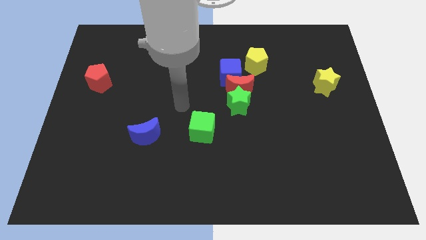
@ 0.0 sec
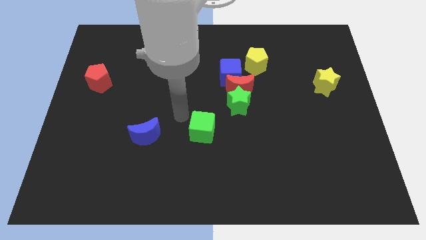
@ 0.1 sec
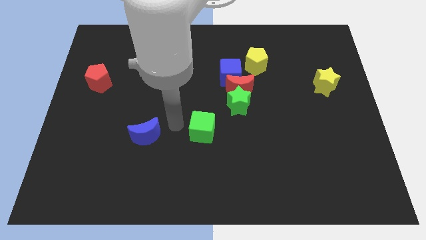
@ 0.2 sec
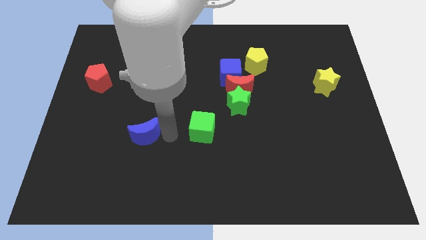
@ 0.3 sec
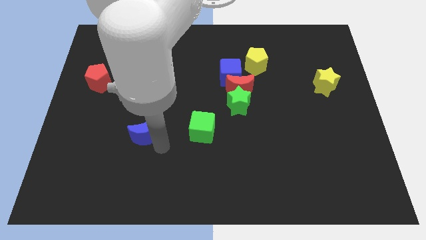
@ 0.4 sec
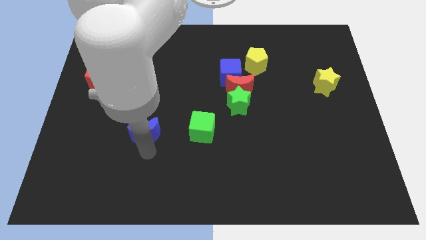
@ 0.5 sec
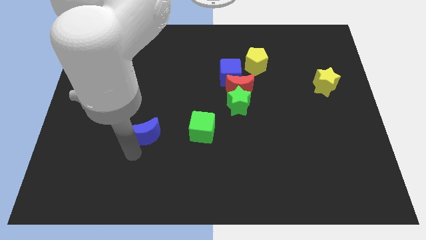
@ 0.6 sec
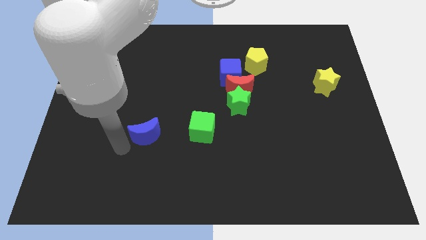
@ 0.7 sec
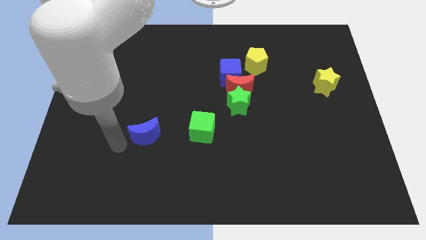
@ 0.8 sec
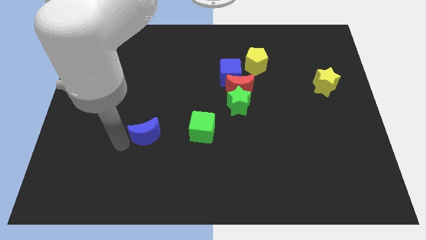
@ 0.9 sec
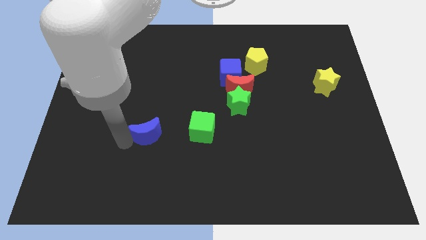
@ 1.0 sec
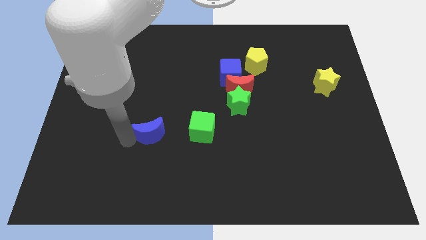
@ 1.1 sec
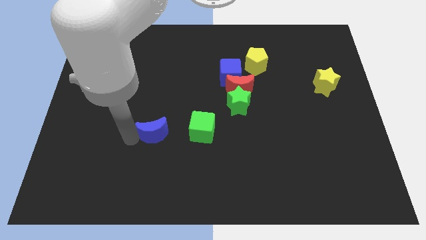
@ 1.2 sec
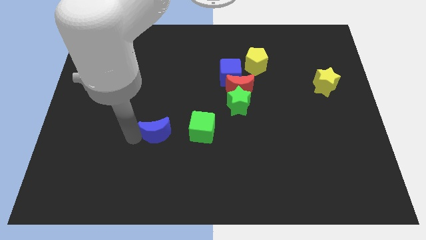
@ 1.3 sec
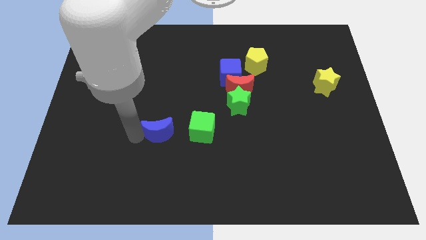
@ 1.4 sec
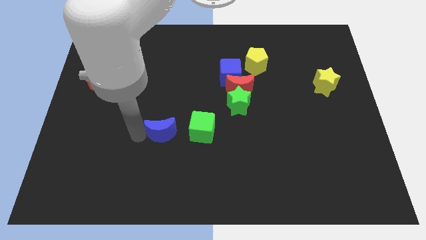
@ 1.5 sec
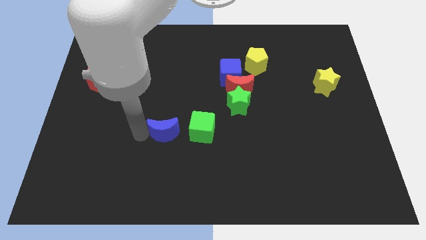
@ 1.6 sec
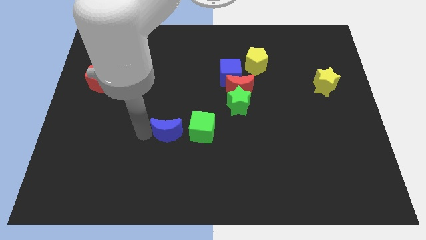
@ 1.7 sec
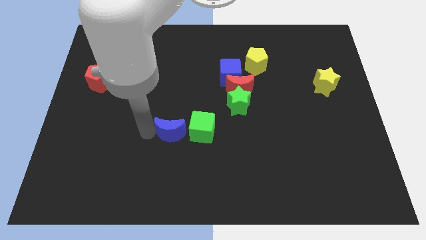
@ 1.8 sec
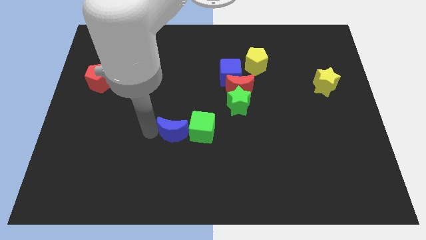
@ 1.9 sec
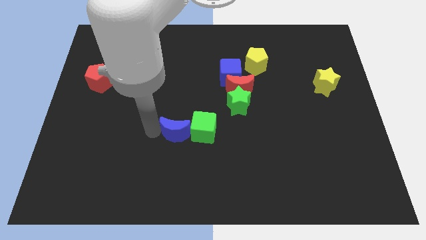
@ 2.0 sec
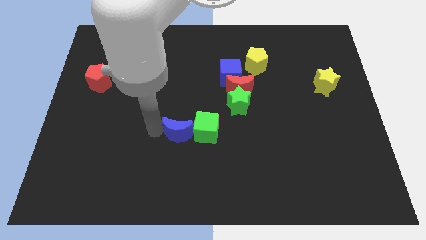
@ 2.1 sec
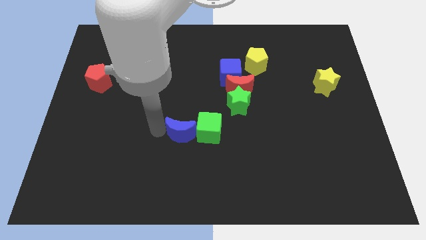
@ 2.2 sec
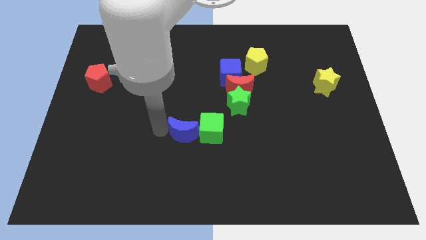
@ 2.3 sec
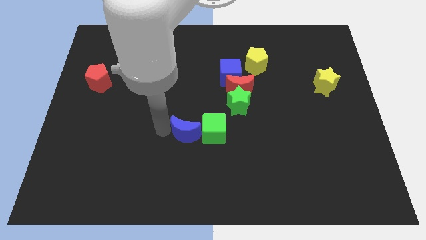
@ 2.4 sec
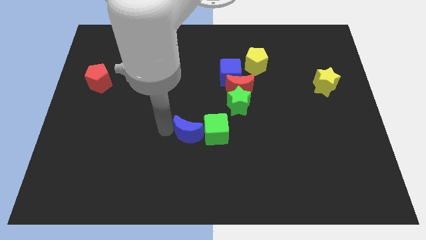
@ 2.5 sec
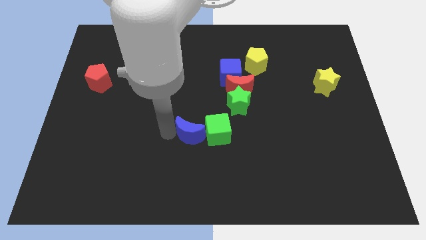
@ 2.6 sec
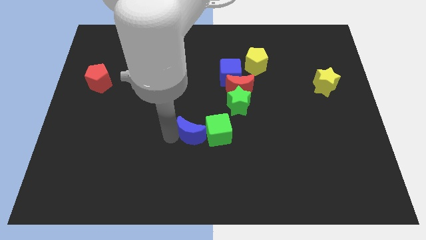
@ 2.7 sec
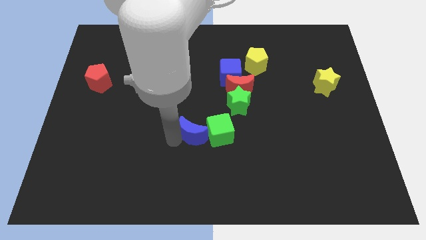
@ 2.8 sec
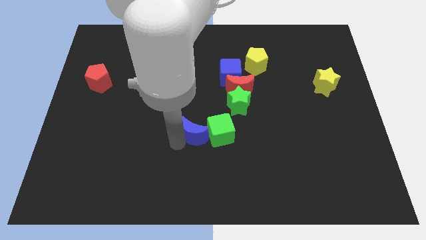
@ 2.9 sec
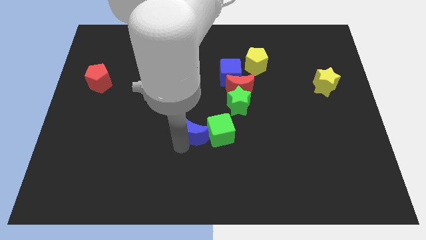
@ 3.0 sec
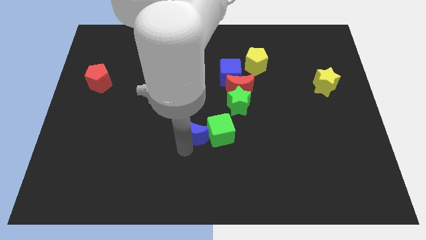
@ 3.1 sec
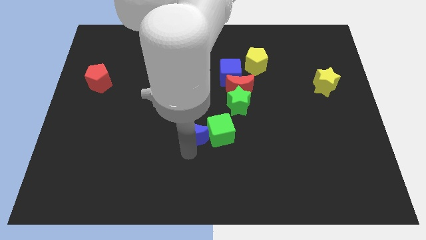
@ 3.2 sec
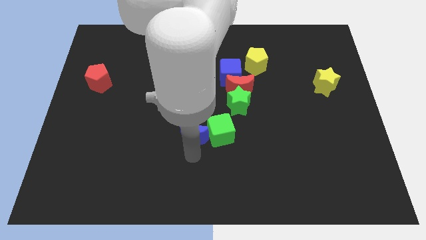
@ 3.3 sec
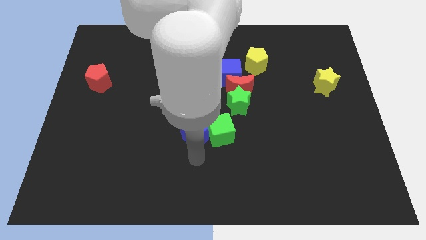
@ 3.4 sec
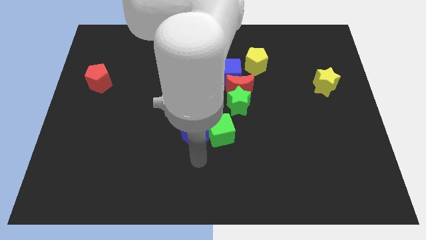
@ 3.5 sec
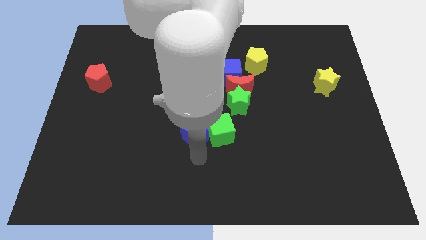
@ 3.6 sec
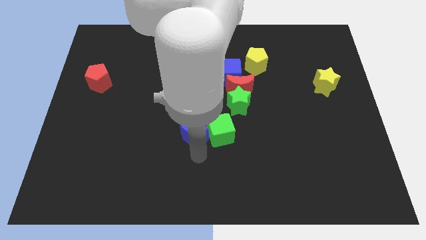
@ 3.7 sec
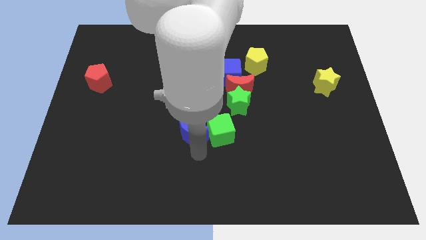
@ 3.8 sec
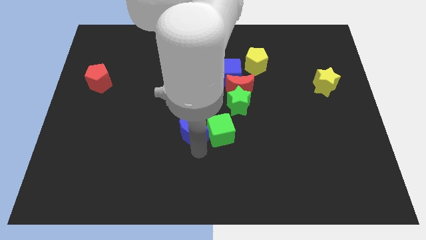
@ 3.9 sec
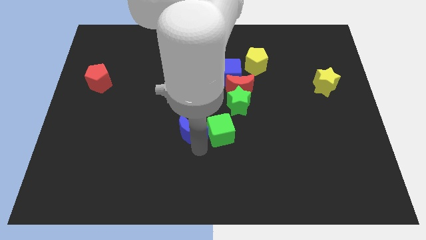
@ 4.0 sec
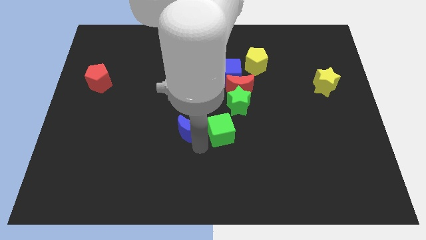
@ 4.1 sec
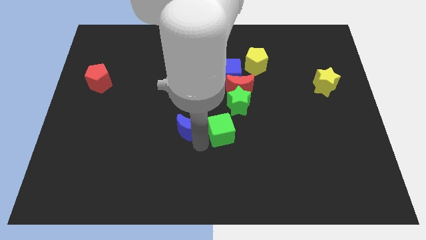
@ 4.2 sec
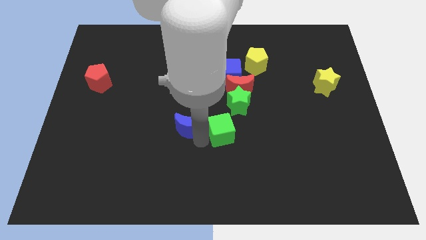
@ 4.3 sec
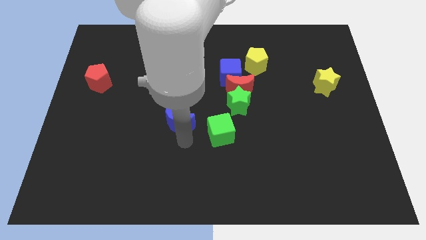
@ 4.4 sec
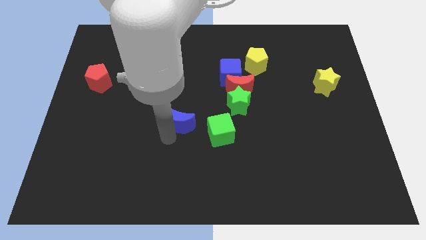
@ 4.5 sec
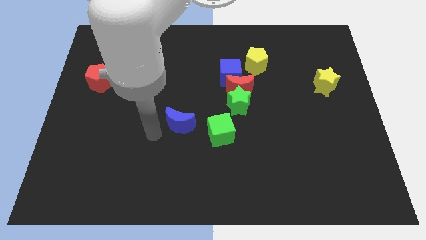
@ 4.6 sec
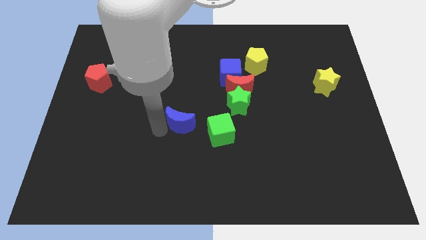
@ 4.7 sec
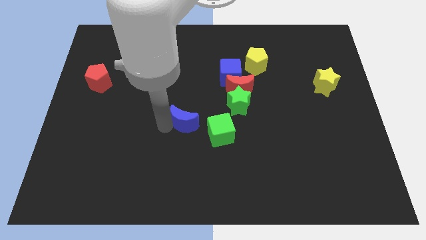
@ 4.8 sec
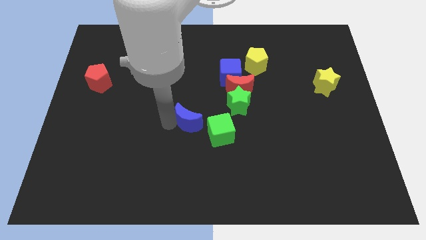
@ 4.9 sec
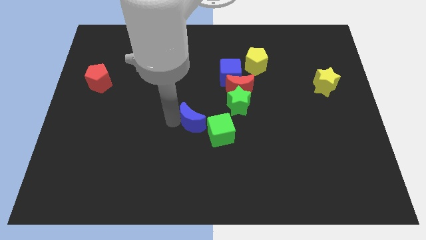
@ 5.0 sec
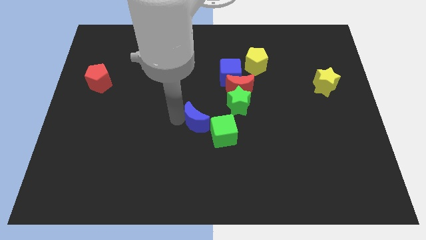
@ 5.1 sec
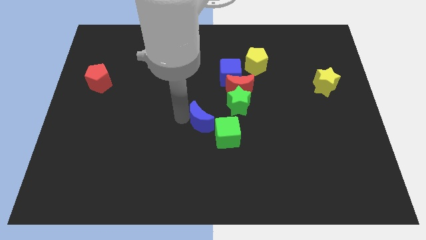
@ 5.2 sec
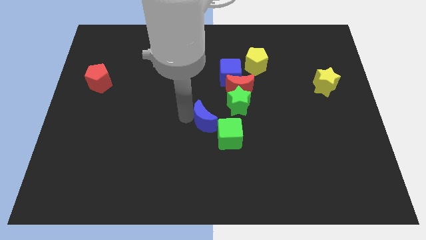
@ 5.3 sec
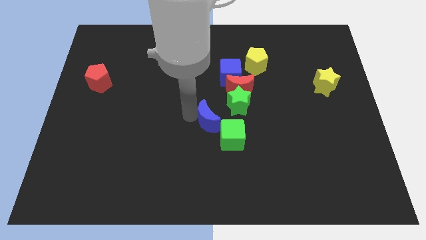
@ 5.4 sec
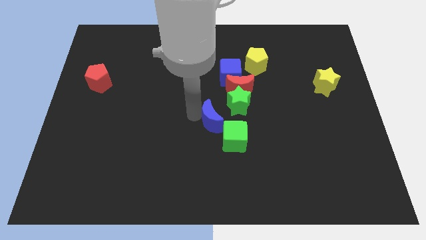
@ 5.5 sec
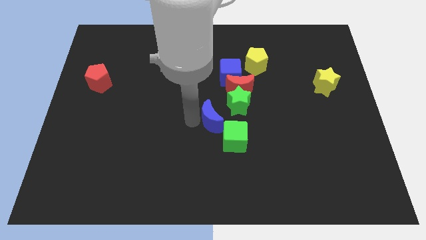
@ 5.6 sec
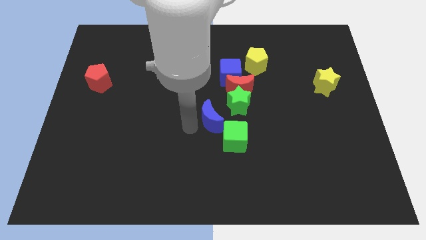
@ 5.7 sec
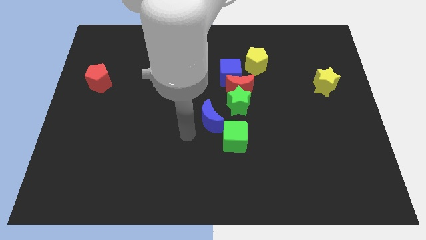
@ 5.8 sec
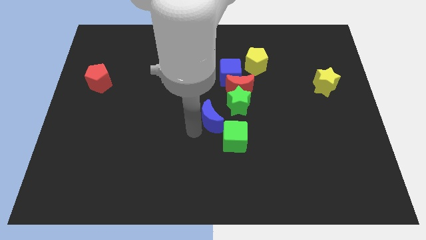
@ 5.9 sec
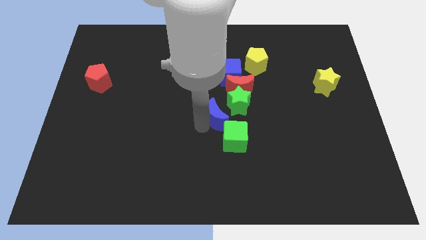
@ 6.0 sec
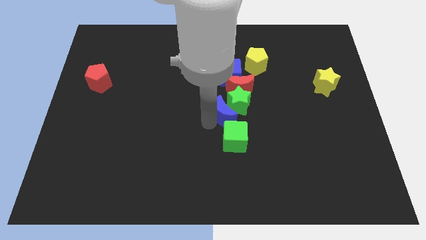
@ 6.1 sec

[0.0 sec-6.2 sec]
push the blue moon towards the green star

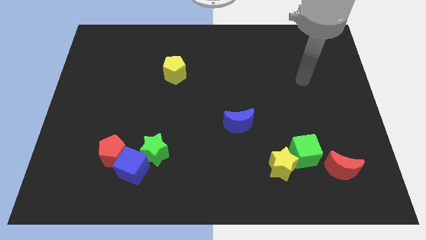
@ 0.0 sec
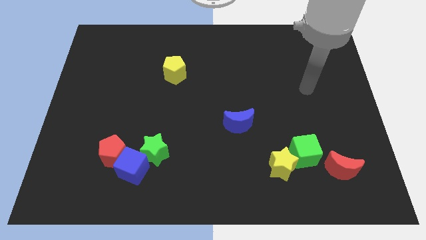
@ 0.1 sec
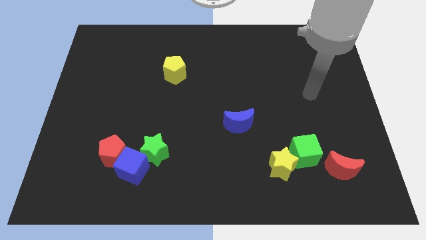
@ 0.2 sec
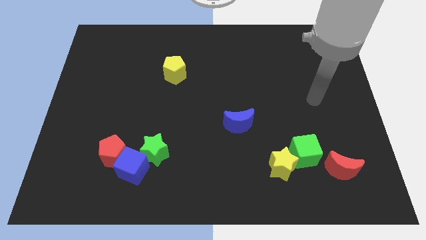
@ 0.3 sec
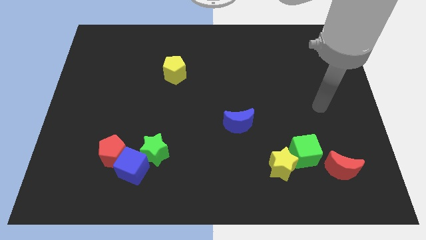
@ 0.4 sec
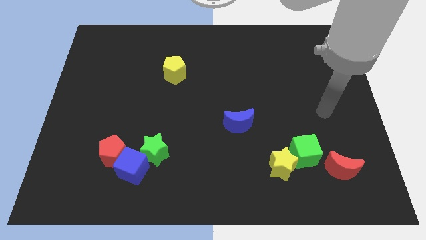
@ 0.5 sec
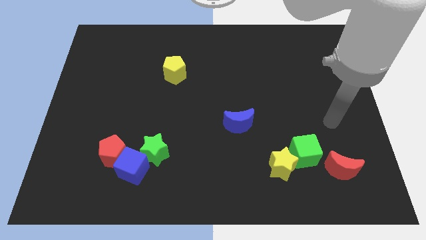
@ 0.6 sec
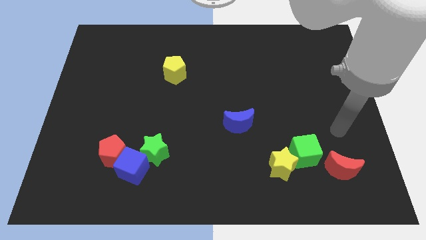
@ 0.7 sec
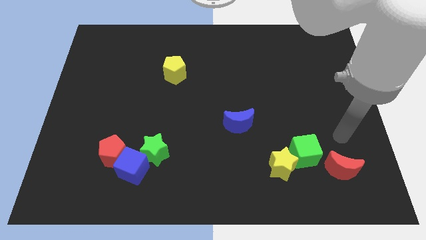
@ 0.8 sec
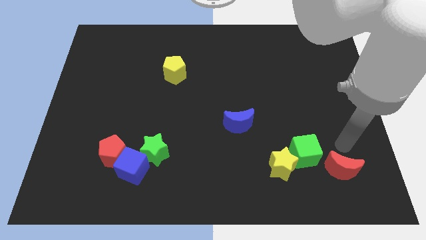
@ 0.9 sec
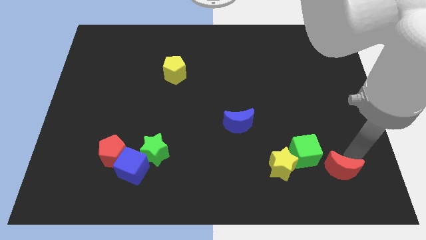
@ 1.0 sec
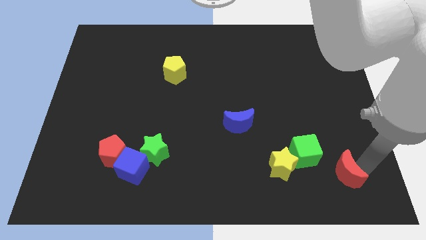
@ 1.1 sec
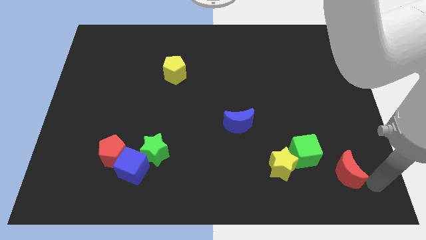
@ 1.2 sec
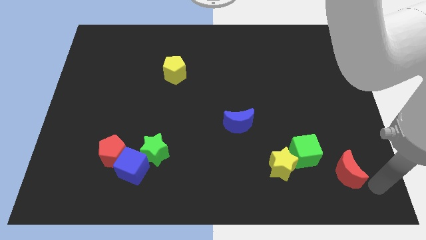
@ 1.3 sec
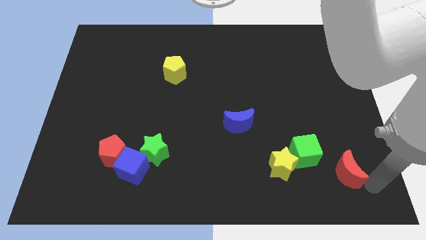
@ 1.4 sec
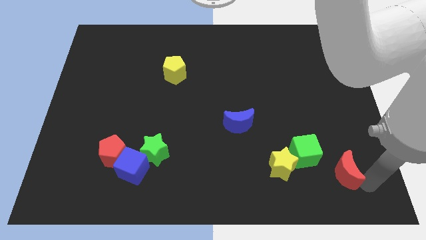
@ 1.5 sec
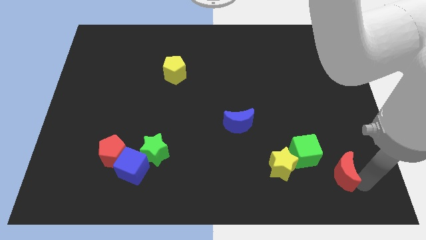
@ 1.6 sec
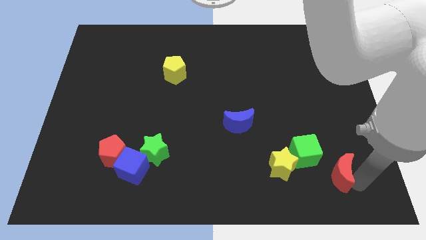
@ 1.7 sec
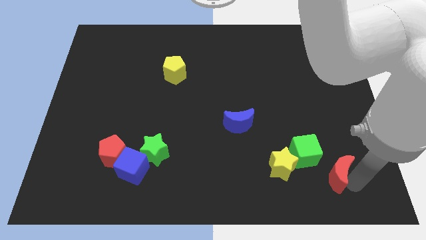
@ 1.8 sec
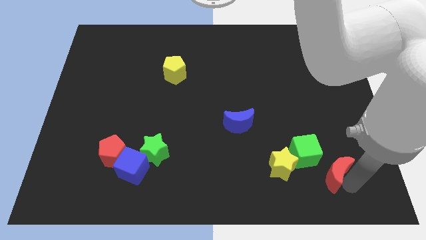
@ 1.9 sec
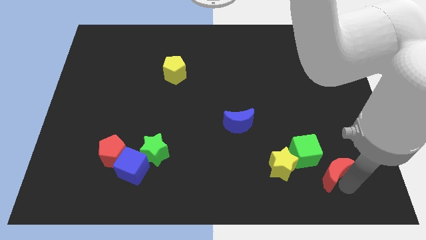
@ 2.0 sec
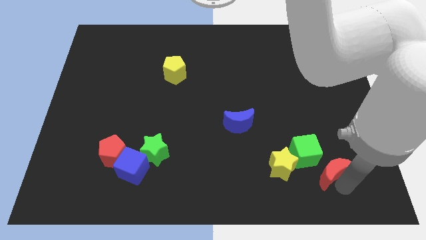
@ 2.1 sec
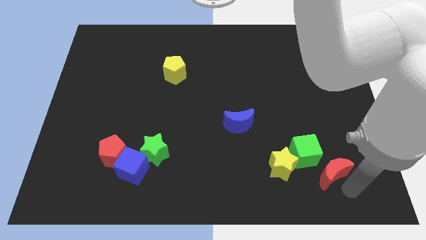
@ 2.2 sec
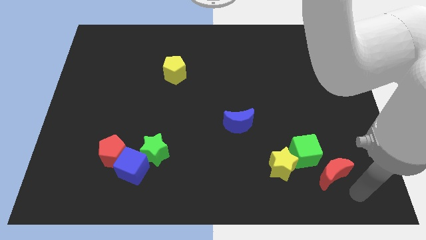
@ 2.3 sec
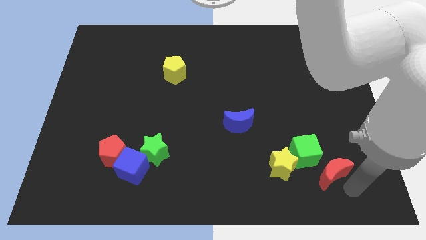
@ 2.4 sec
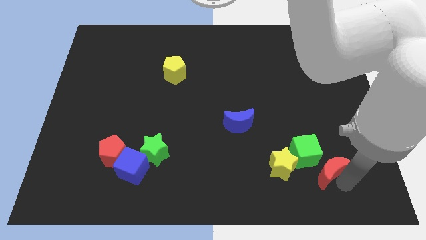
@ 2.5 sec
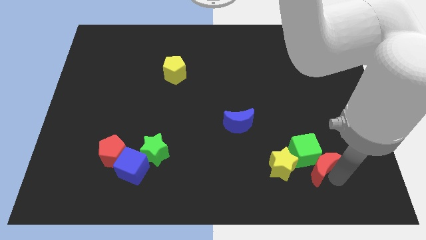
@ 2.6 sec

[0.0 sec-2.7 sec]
slide the red moon close to the green cube
